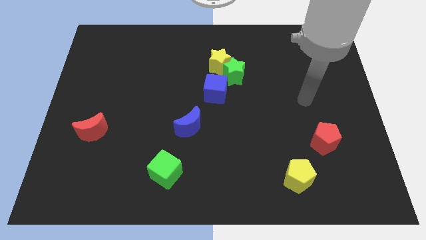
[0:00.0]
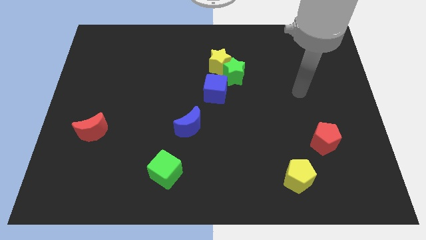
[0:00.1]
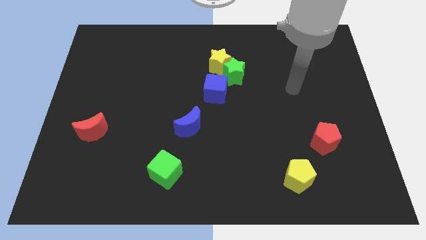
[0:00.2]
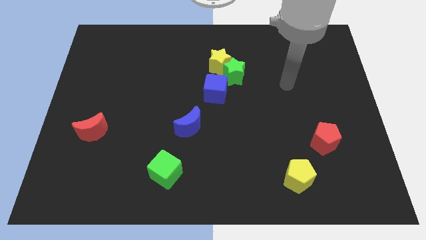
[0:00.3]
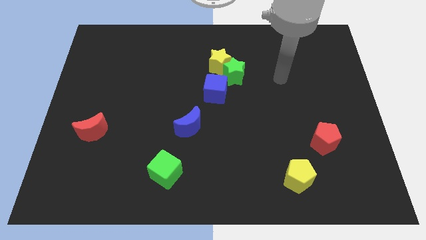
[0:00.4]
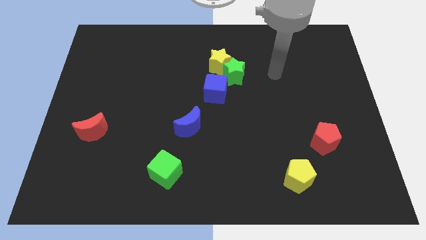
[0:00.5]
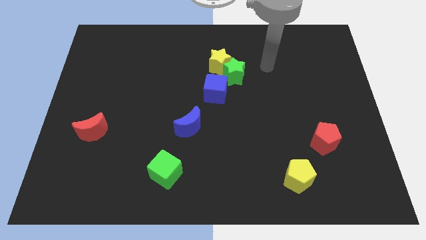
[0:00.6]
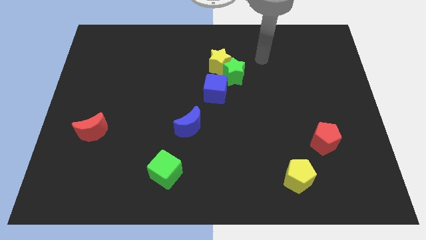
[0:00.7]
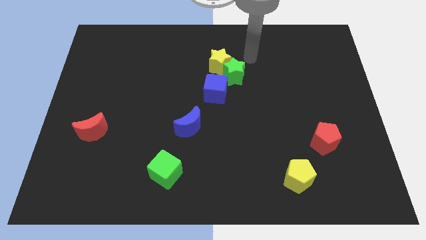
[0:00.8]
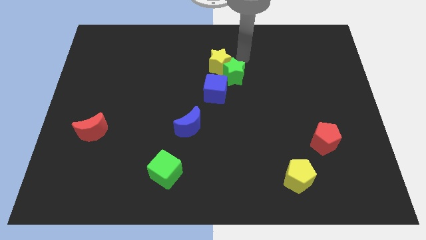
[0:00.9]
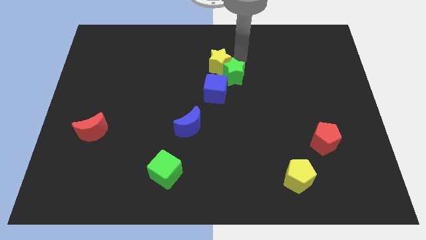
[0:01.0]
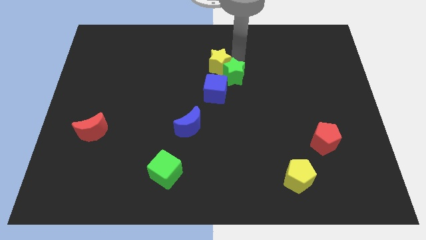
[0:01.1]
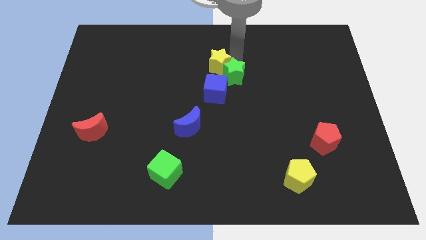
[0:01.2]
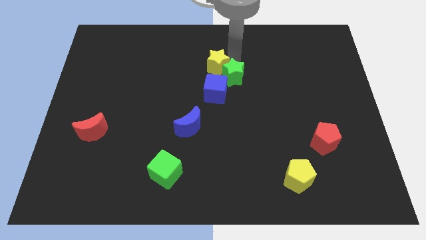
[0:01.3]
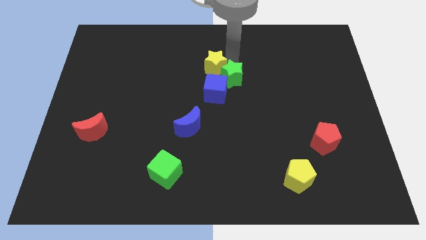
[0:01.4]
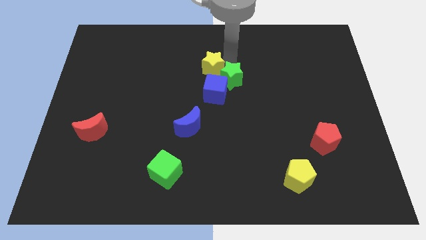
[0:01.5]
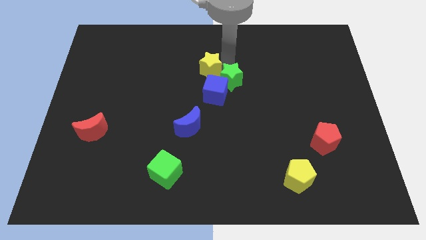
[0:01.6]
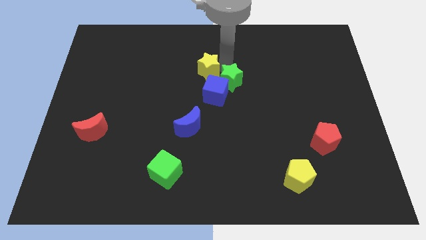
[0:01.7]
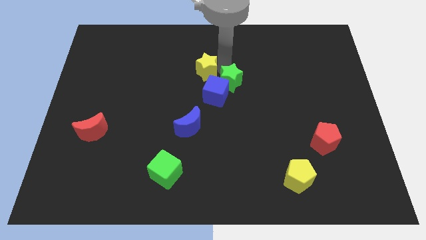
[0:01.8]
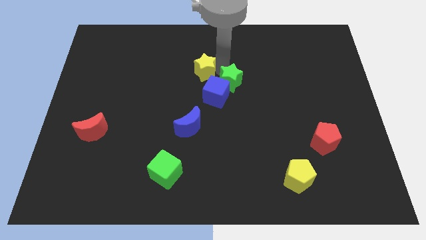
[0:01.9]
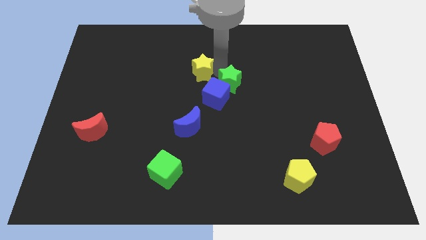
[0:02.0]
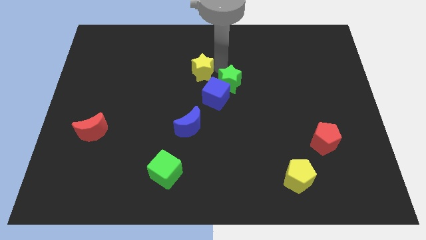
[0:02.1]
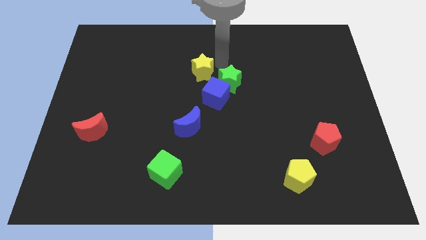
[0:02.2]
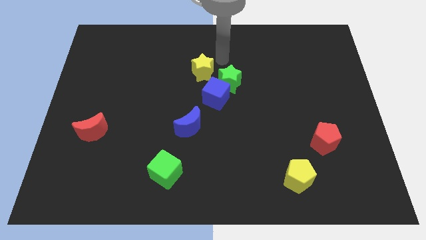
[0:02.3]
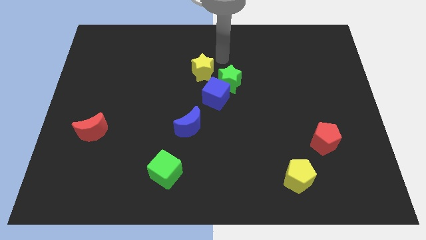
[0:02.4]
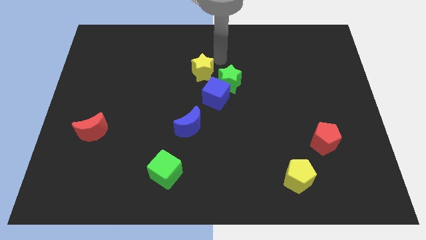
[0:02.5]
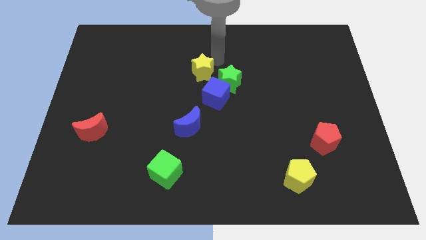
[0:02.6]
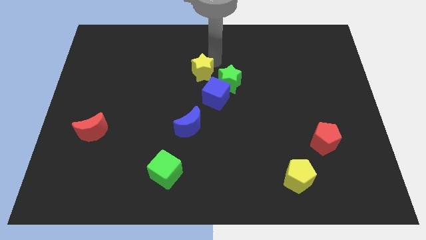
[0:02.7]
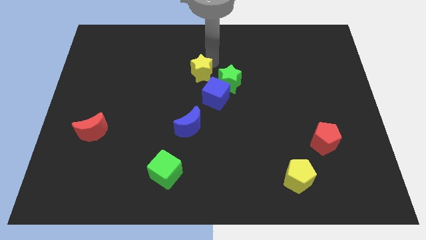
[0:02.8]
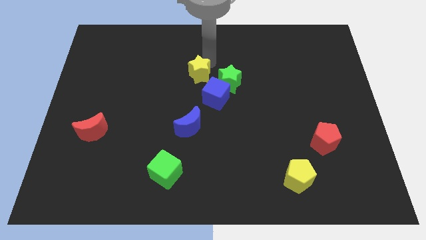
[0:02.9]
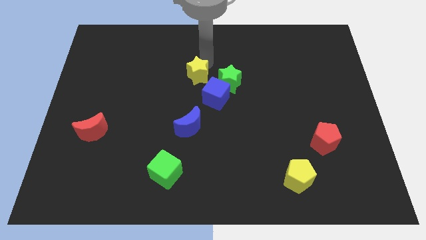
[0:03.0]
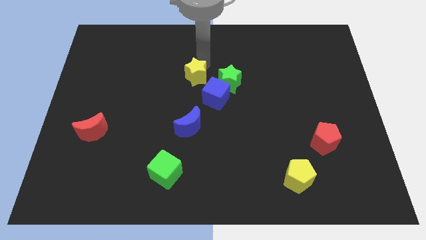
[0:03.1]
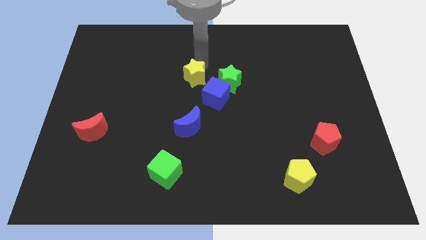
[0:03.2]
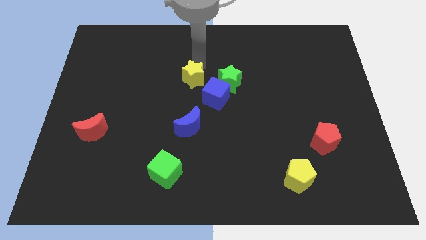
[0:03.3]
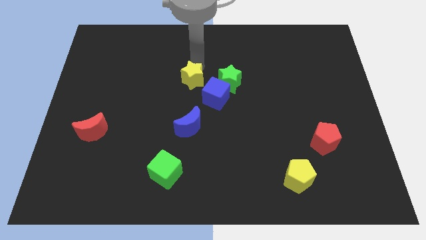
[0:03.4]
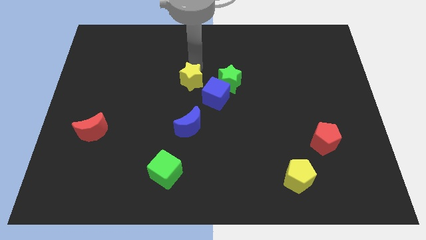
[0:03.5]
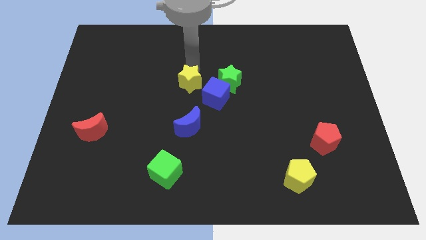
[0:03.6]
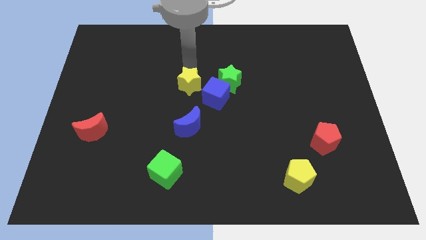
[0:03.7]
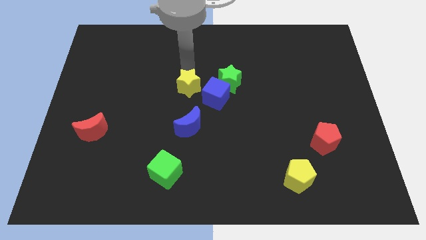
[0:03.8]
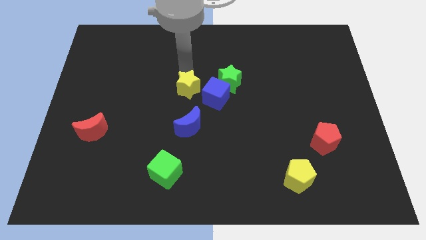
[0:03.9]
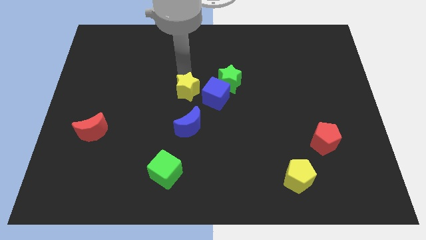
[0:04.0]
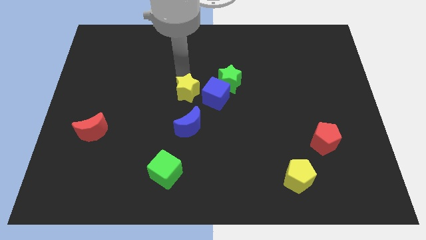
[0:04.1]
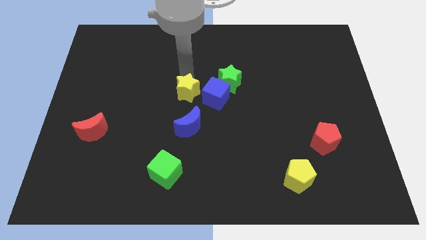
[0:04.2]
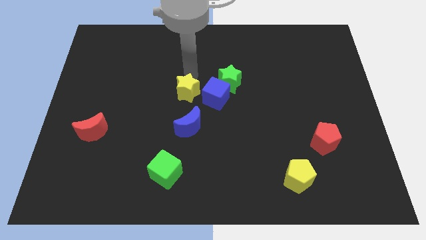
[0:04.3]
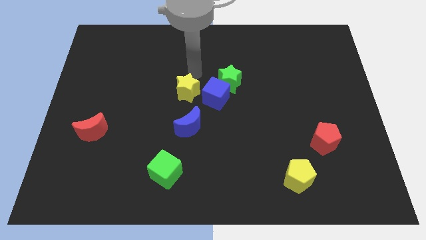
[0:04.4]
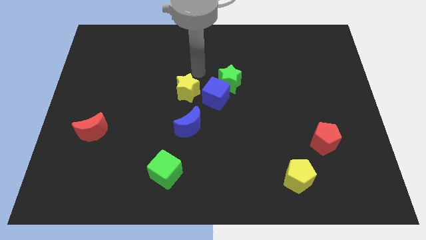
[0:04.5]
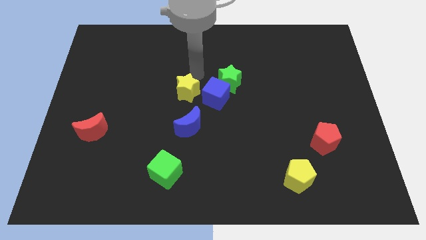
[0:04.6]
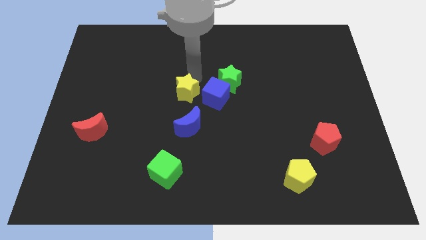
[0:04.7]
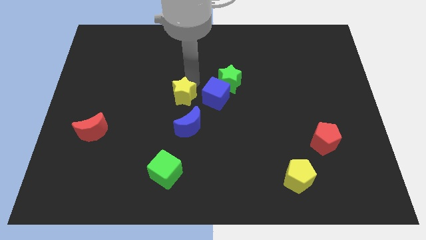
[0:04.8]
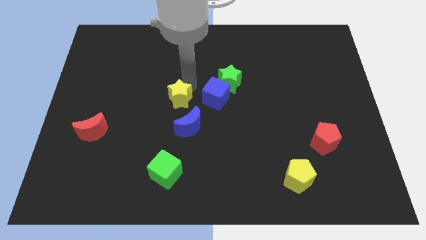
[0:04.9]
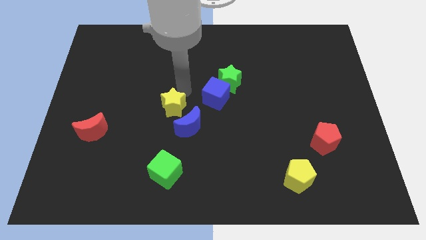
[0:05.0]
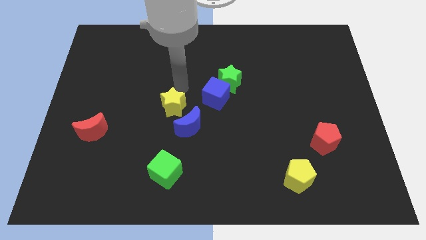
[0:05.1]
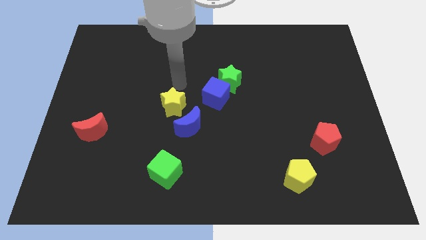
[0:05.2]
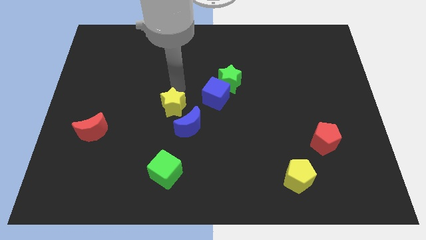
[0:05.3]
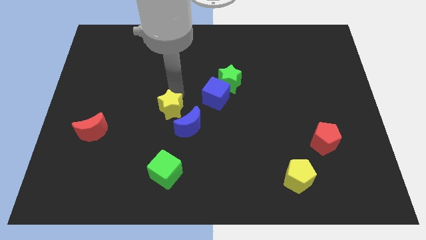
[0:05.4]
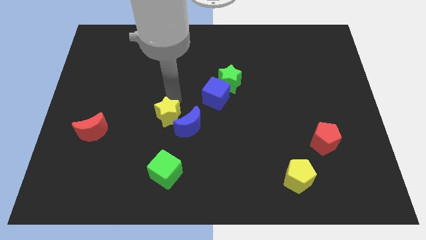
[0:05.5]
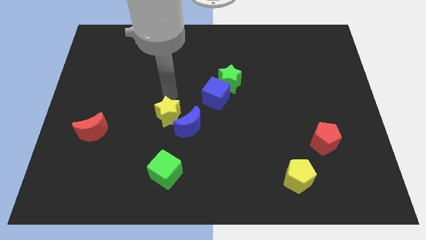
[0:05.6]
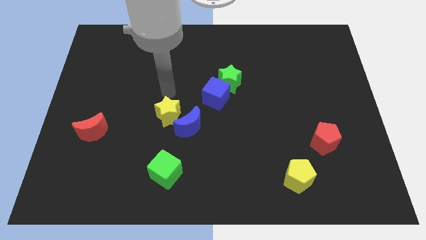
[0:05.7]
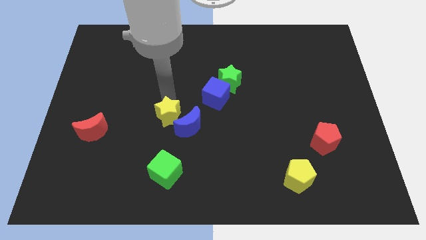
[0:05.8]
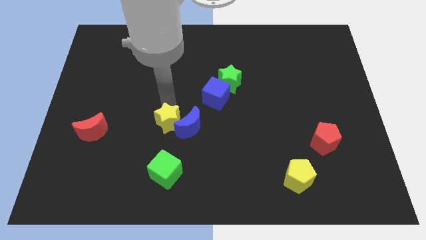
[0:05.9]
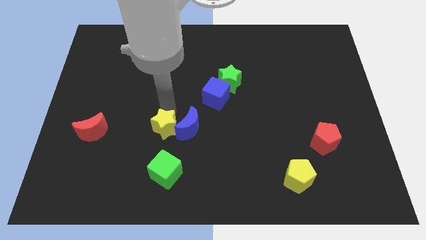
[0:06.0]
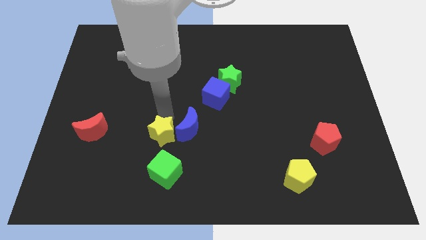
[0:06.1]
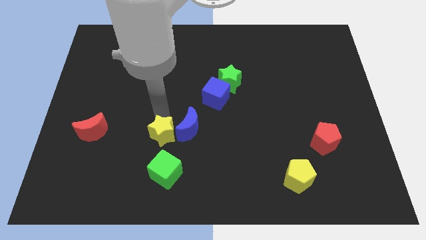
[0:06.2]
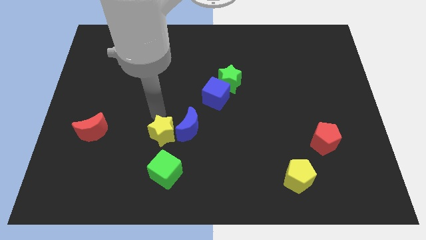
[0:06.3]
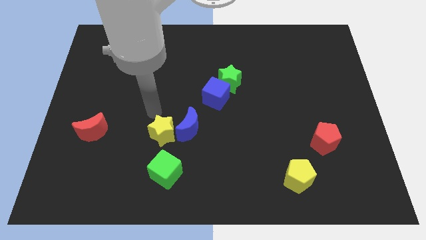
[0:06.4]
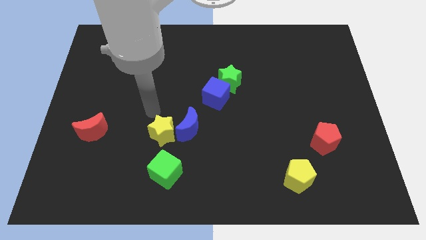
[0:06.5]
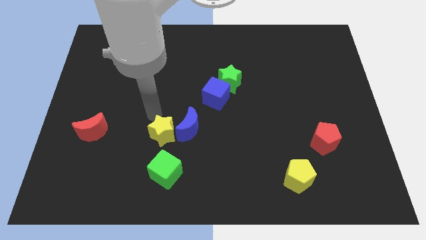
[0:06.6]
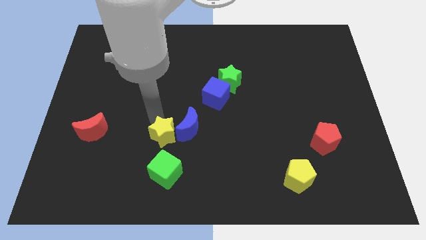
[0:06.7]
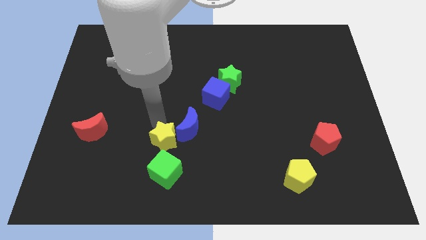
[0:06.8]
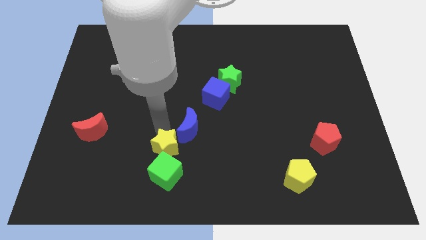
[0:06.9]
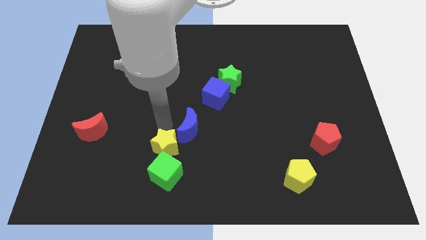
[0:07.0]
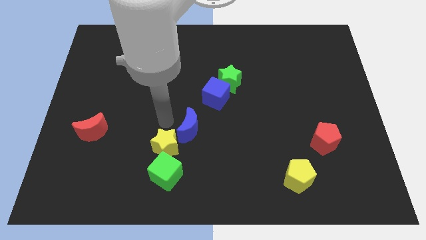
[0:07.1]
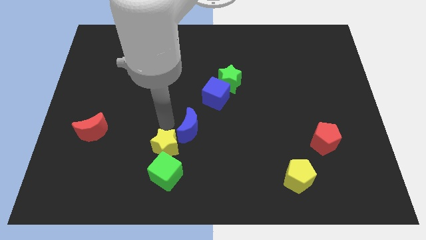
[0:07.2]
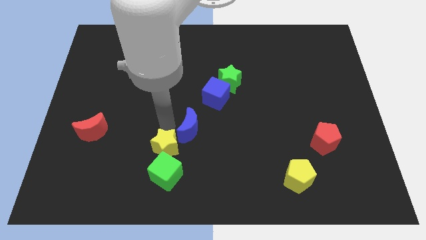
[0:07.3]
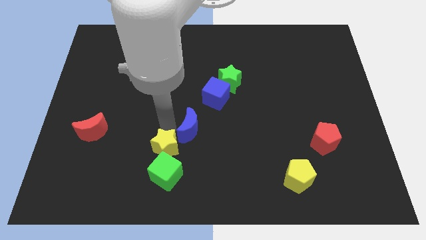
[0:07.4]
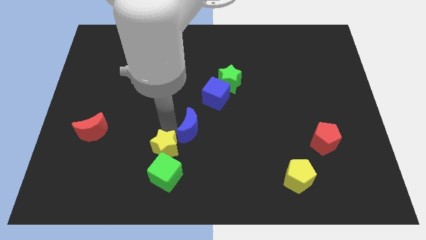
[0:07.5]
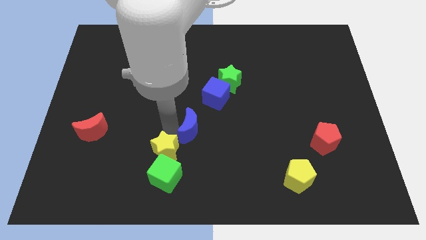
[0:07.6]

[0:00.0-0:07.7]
put the yellow star close to the green cube
